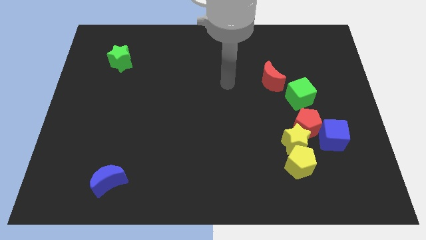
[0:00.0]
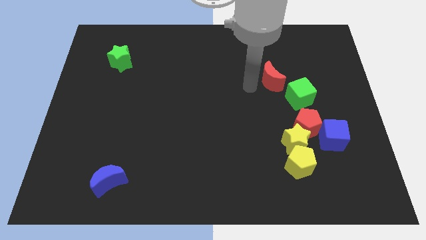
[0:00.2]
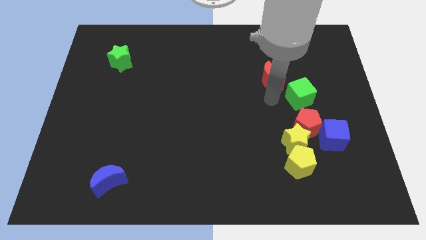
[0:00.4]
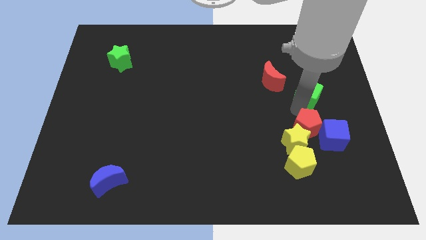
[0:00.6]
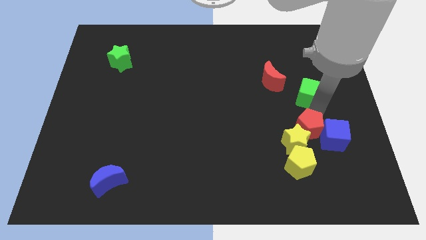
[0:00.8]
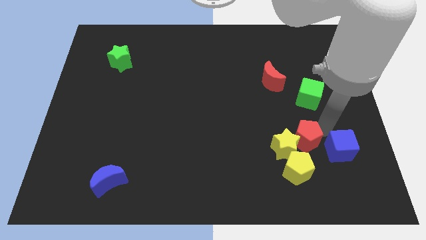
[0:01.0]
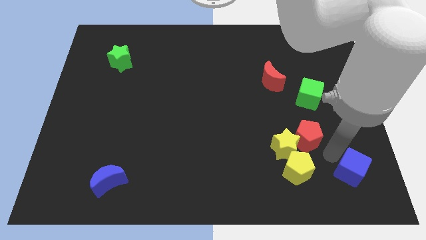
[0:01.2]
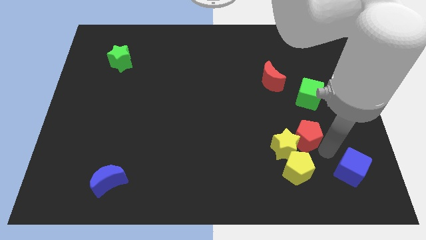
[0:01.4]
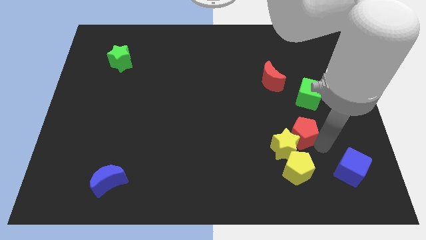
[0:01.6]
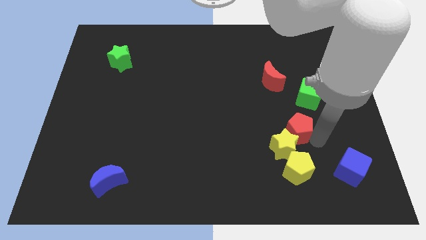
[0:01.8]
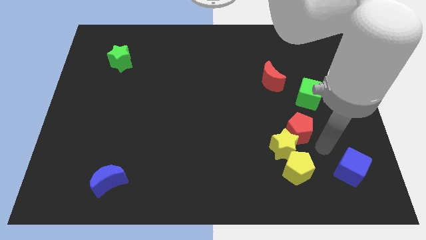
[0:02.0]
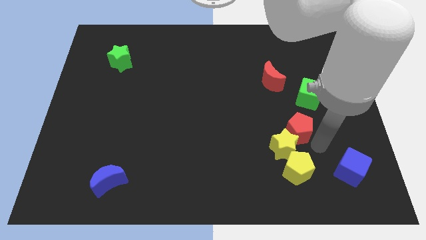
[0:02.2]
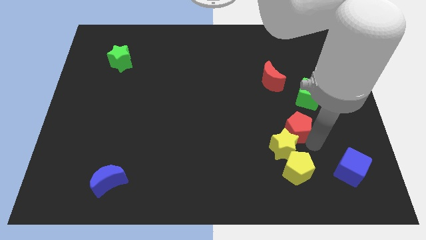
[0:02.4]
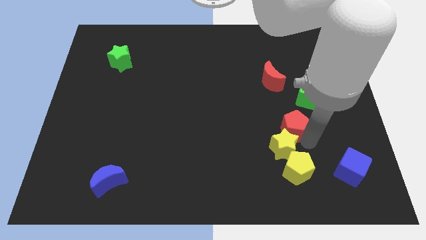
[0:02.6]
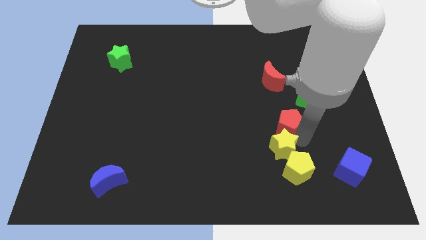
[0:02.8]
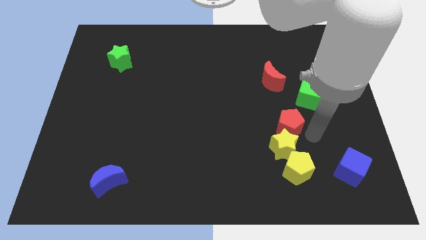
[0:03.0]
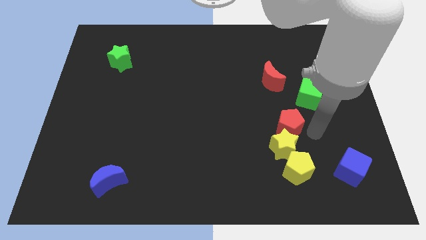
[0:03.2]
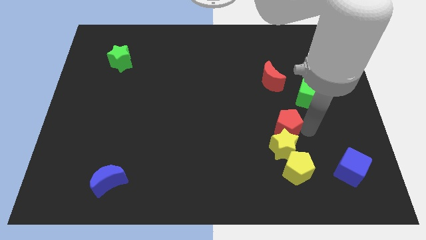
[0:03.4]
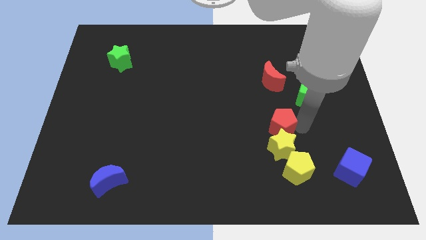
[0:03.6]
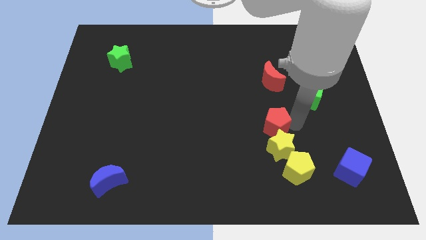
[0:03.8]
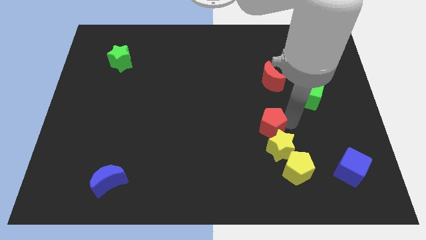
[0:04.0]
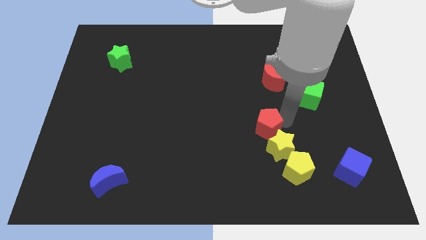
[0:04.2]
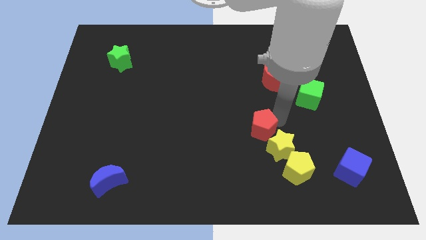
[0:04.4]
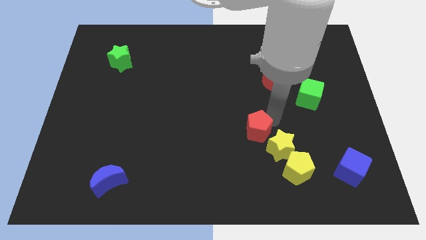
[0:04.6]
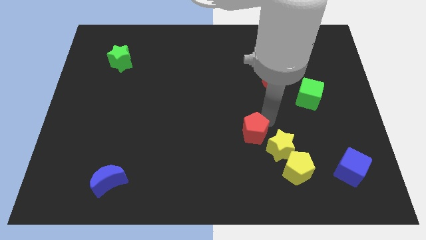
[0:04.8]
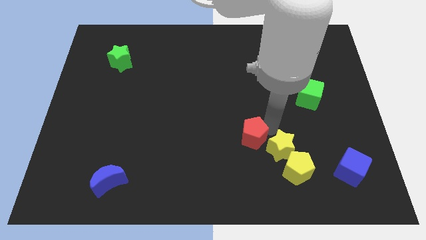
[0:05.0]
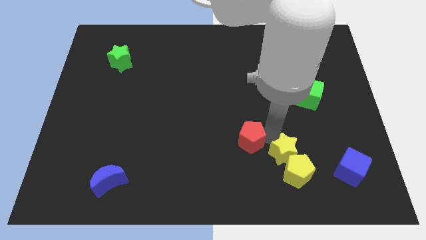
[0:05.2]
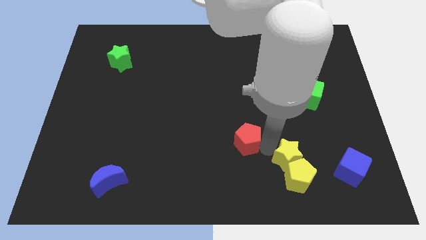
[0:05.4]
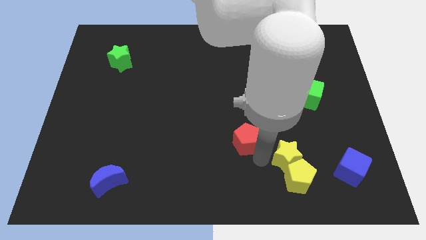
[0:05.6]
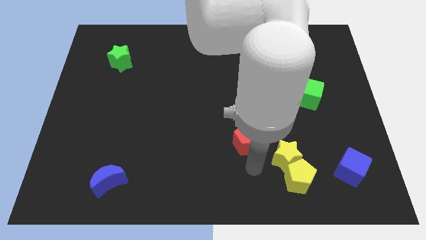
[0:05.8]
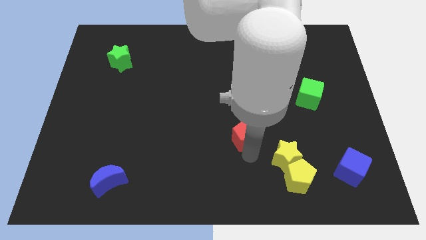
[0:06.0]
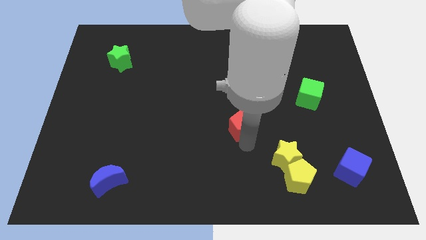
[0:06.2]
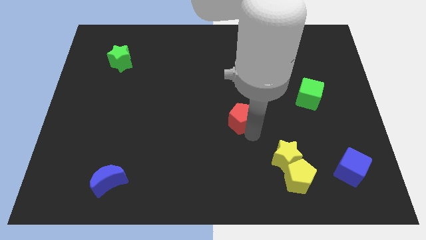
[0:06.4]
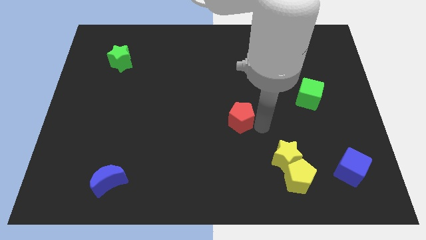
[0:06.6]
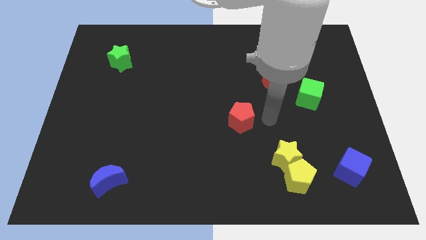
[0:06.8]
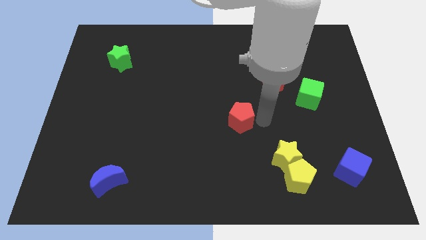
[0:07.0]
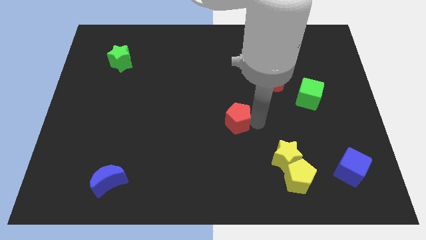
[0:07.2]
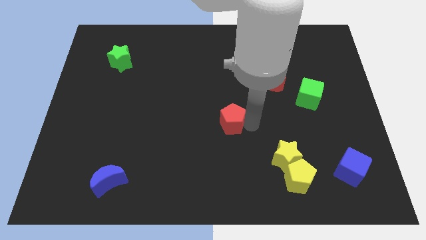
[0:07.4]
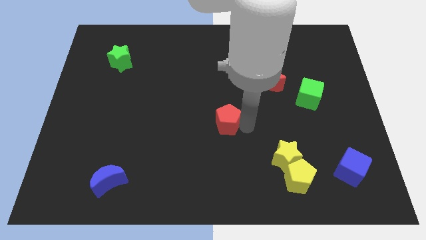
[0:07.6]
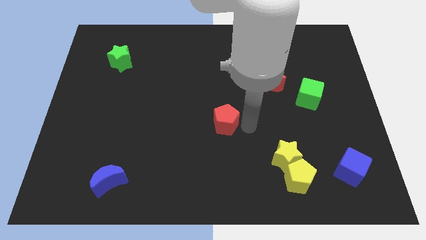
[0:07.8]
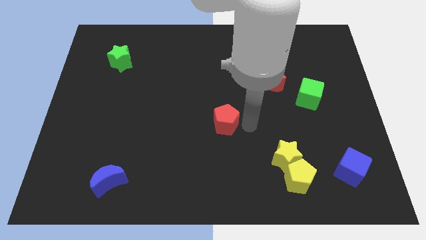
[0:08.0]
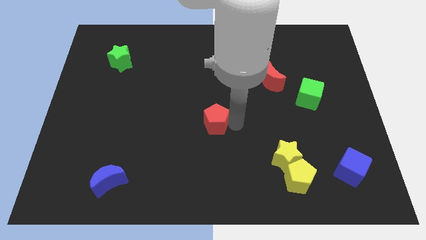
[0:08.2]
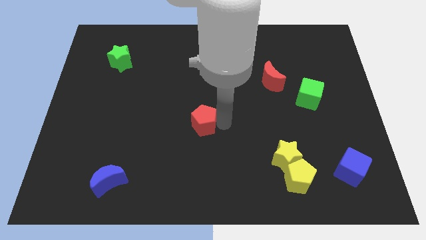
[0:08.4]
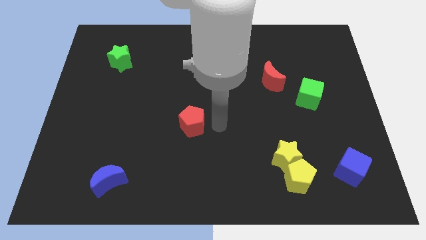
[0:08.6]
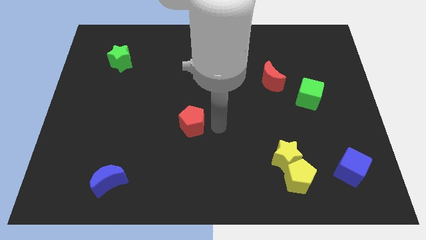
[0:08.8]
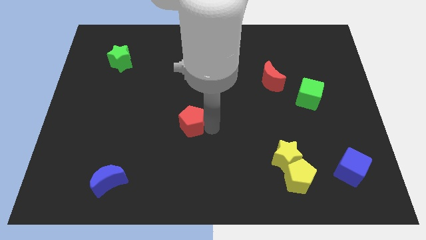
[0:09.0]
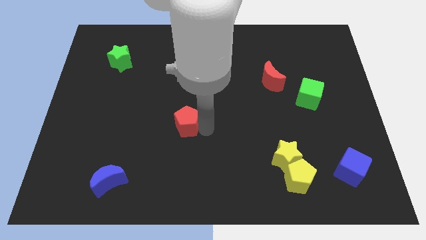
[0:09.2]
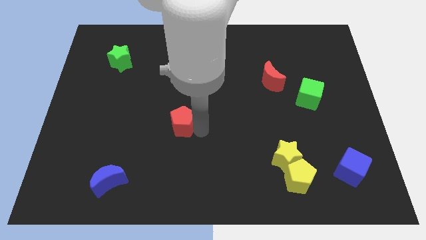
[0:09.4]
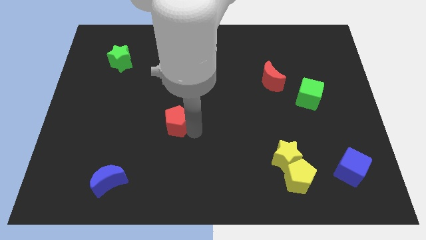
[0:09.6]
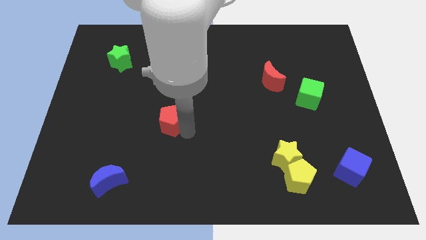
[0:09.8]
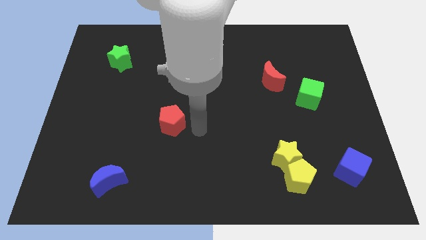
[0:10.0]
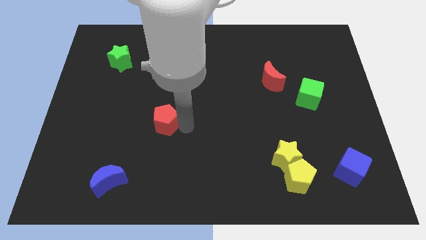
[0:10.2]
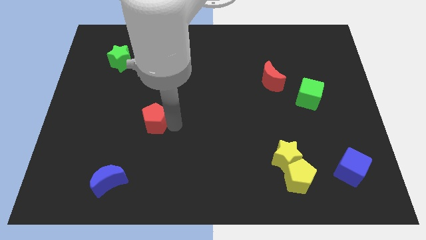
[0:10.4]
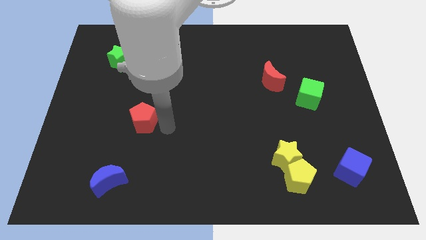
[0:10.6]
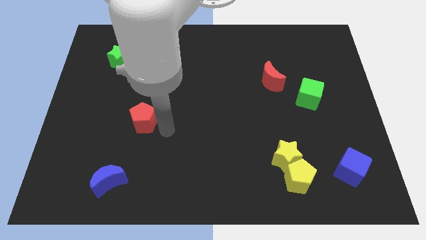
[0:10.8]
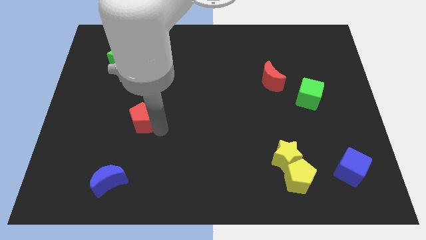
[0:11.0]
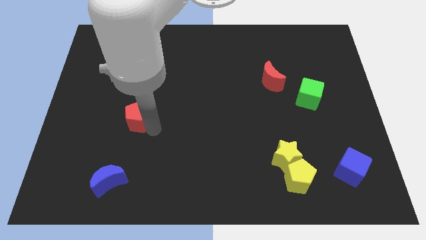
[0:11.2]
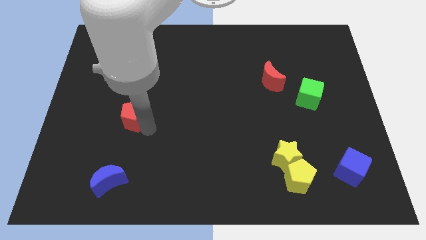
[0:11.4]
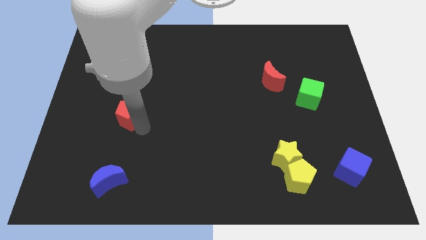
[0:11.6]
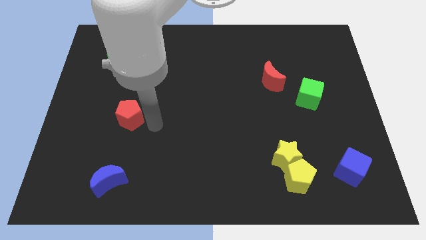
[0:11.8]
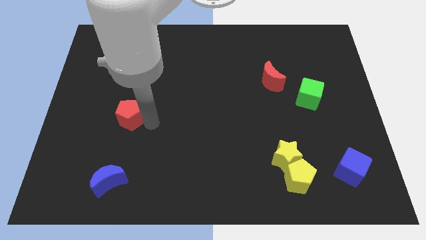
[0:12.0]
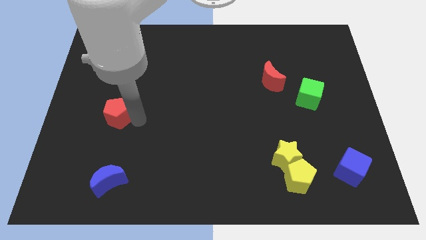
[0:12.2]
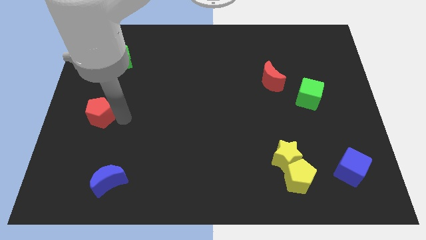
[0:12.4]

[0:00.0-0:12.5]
put the red pentagon to the left side of the board
